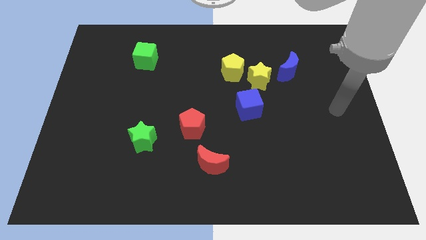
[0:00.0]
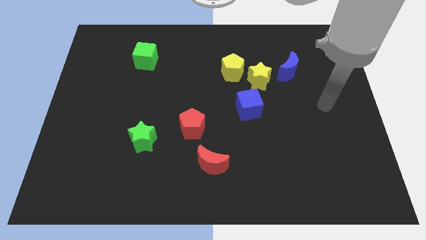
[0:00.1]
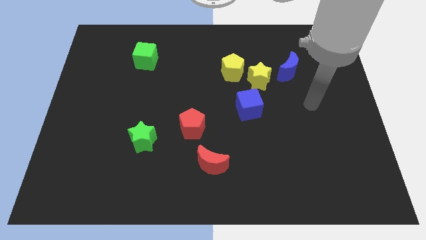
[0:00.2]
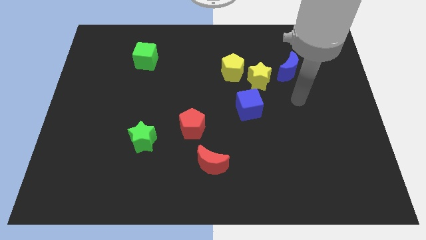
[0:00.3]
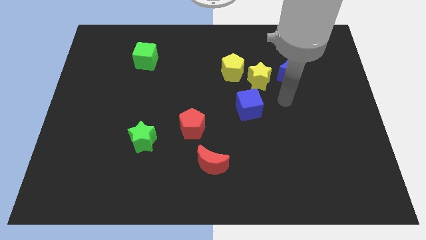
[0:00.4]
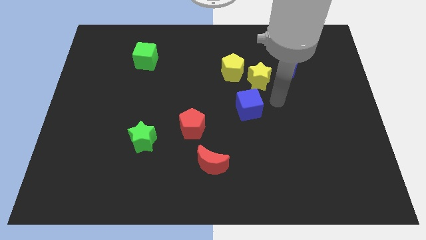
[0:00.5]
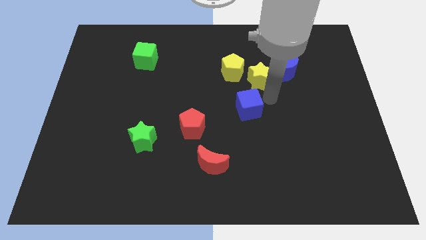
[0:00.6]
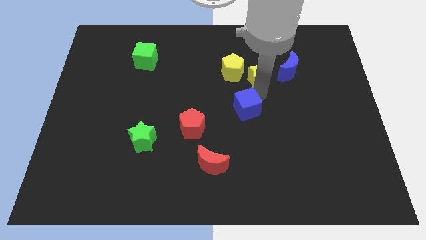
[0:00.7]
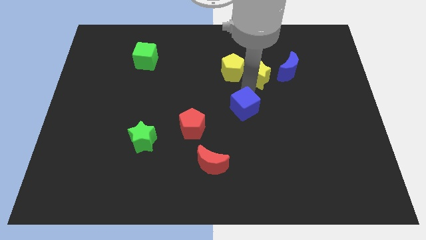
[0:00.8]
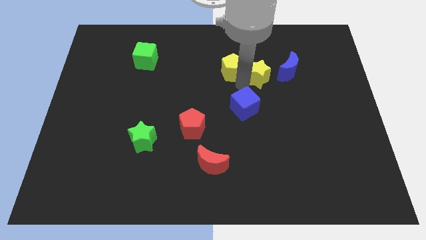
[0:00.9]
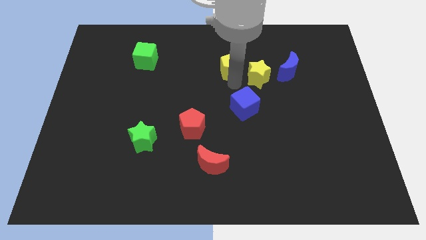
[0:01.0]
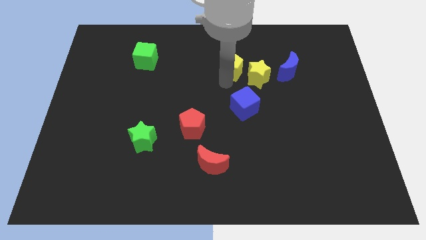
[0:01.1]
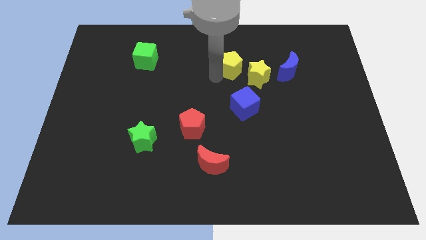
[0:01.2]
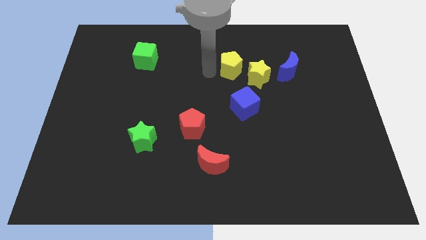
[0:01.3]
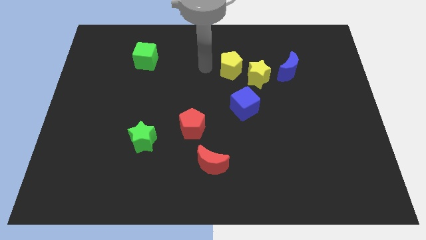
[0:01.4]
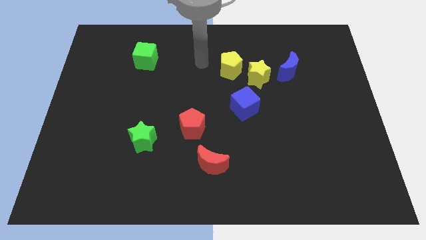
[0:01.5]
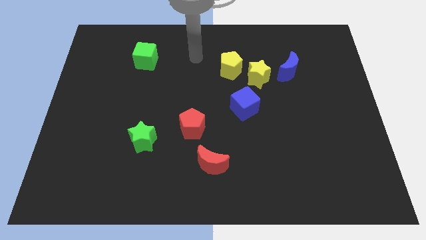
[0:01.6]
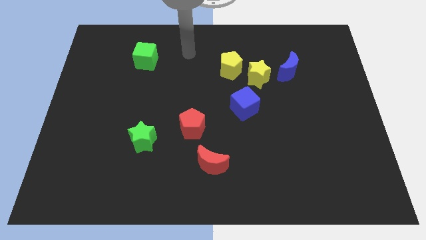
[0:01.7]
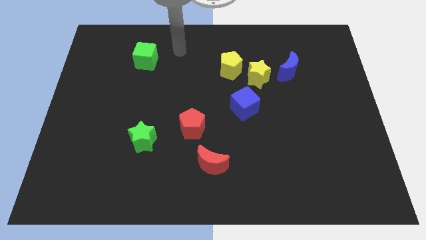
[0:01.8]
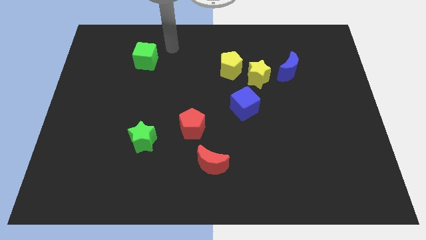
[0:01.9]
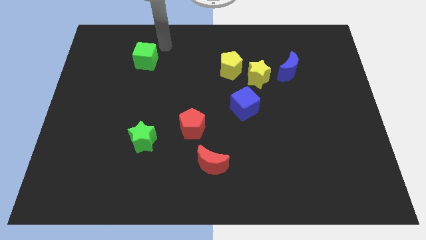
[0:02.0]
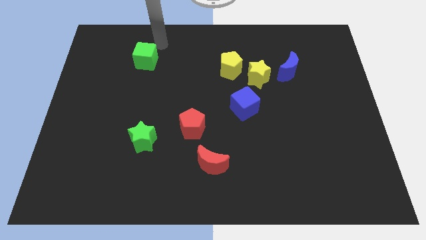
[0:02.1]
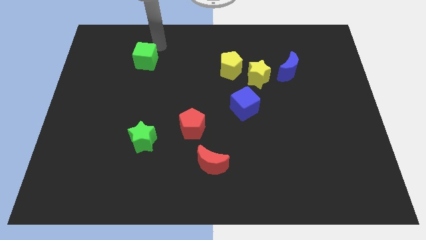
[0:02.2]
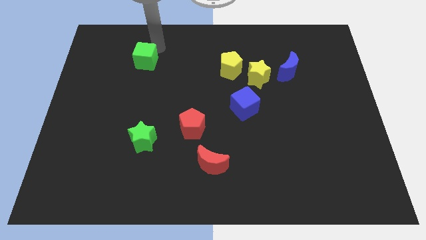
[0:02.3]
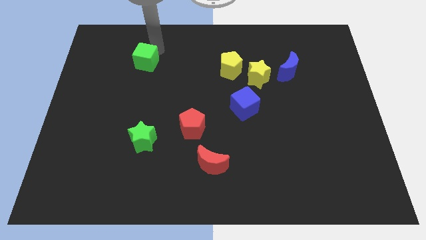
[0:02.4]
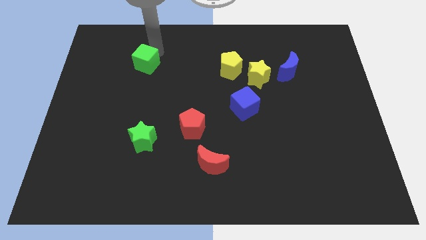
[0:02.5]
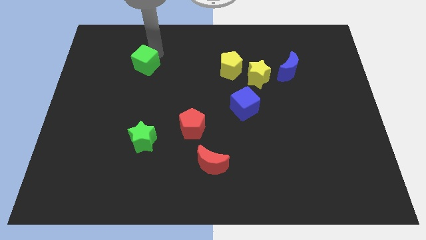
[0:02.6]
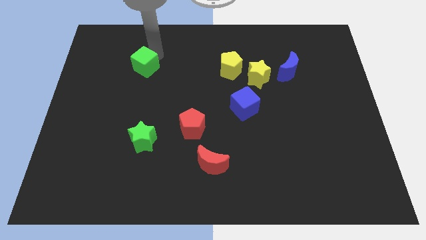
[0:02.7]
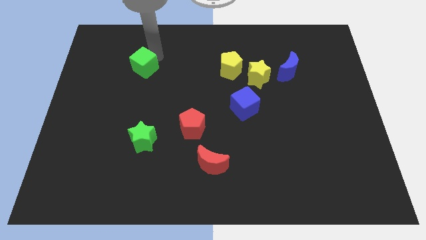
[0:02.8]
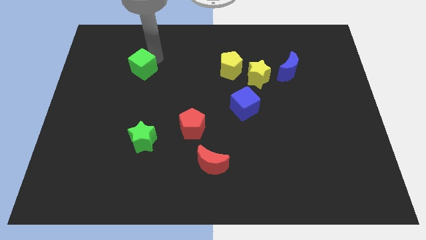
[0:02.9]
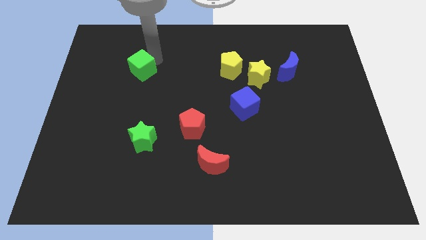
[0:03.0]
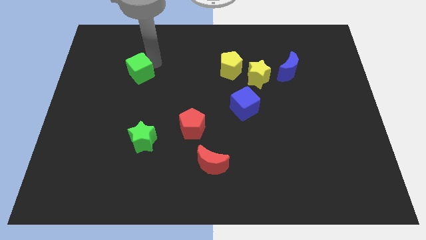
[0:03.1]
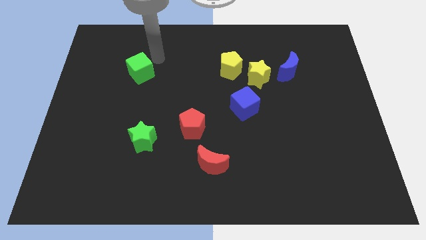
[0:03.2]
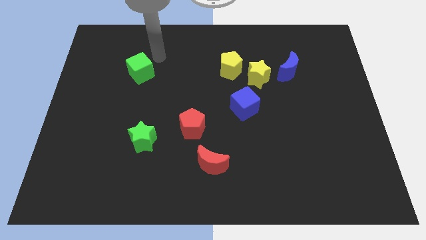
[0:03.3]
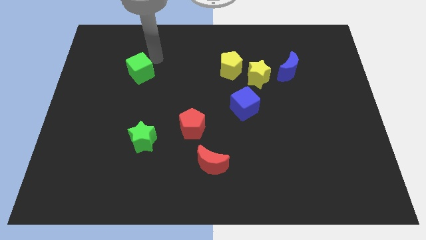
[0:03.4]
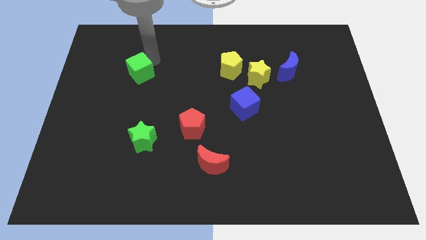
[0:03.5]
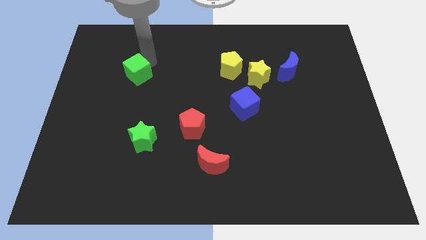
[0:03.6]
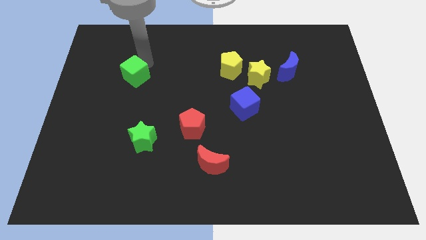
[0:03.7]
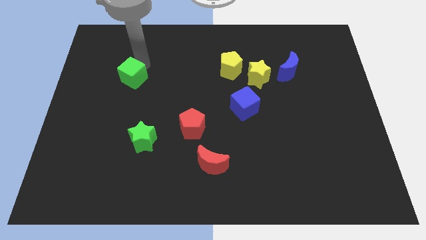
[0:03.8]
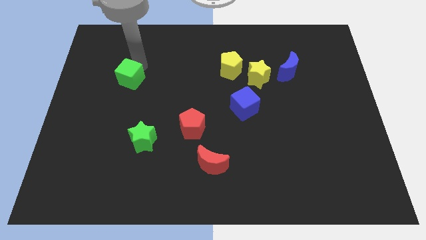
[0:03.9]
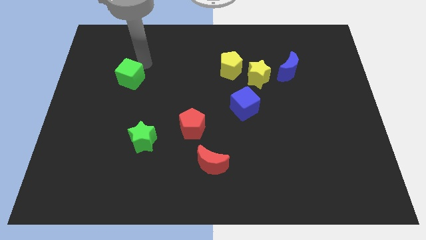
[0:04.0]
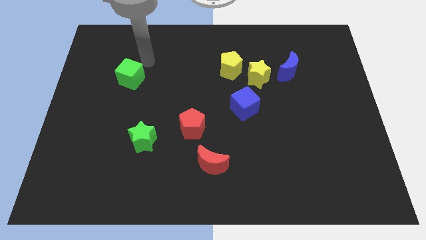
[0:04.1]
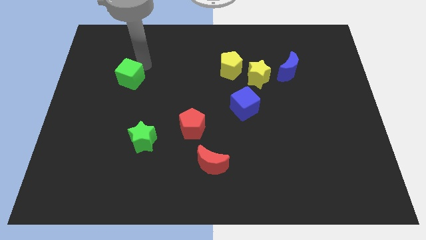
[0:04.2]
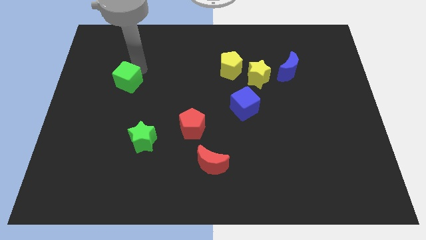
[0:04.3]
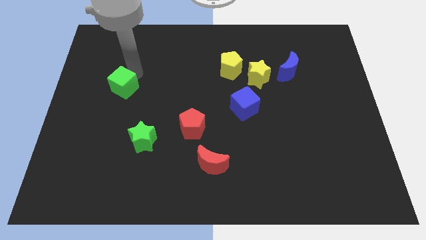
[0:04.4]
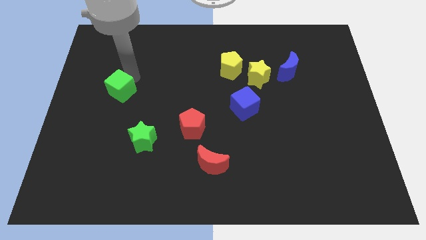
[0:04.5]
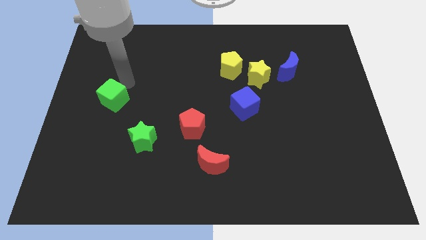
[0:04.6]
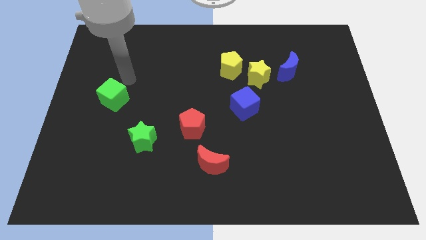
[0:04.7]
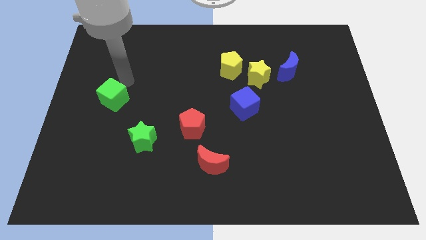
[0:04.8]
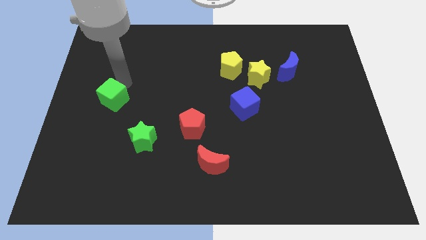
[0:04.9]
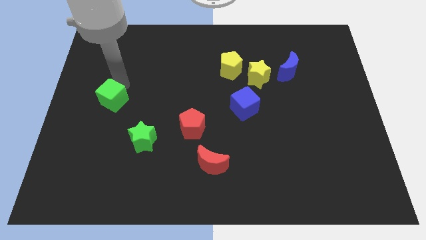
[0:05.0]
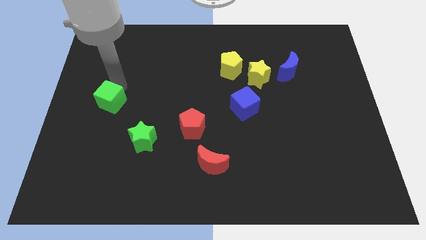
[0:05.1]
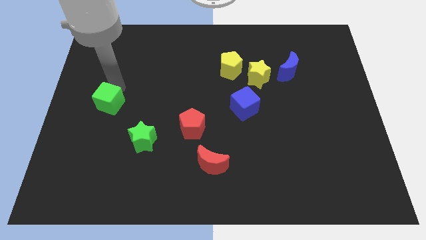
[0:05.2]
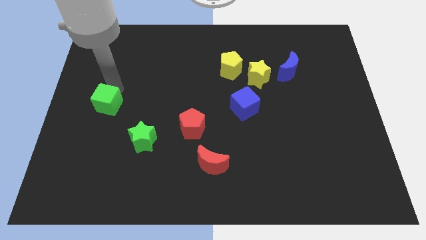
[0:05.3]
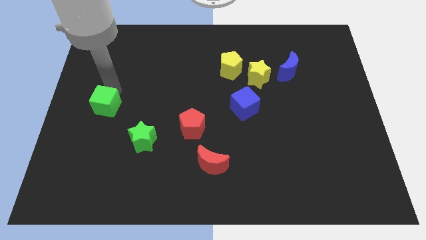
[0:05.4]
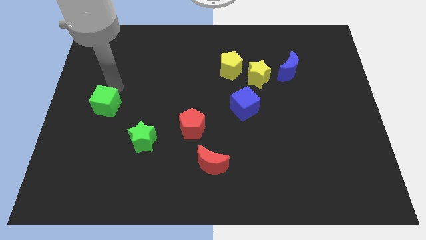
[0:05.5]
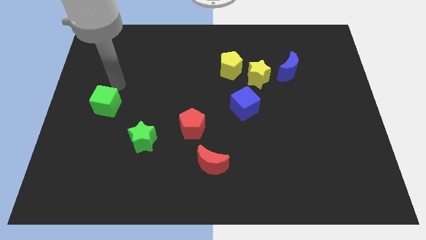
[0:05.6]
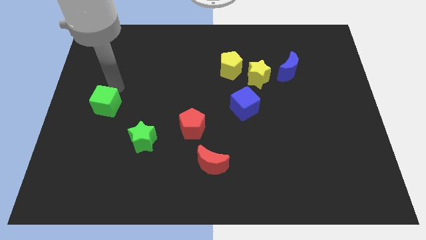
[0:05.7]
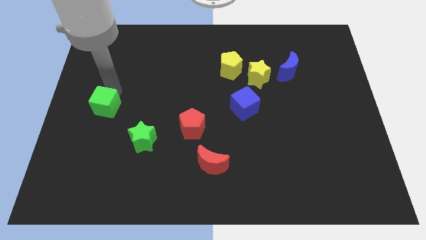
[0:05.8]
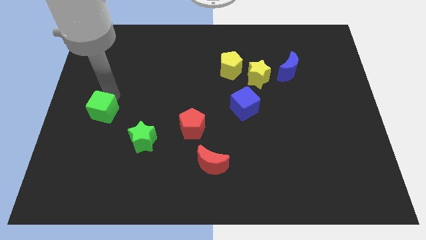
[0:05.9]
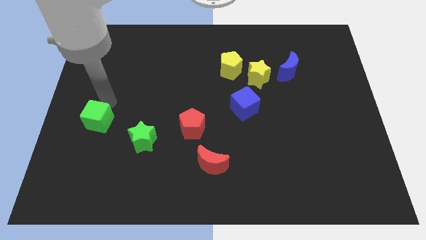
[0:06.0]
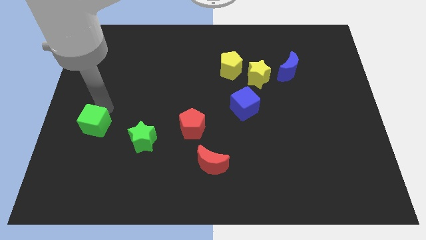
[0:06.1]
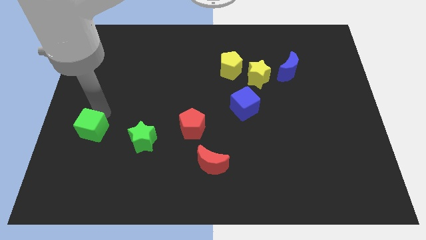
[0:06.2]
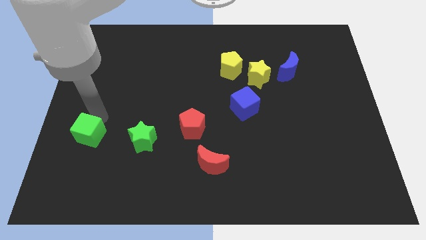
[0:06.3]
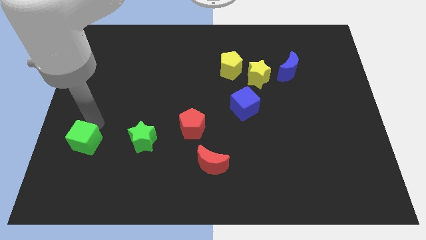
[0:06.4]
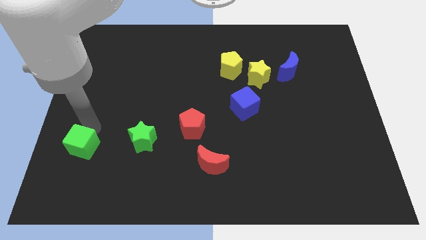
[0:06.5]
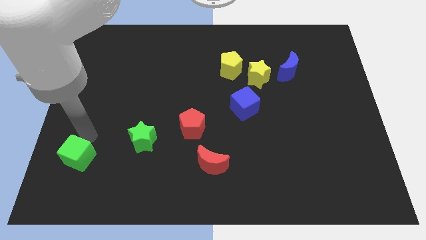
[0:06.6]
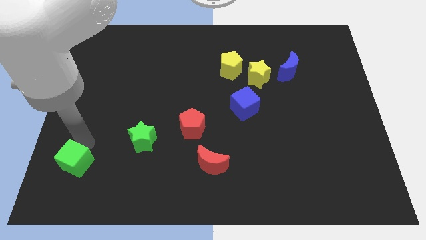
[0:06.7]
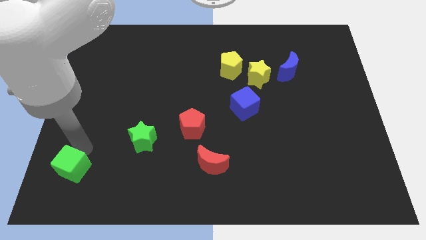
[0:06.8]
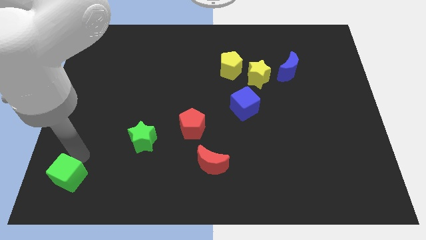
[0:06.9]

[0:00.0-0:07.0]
push the green cube to the bottom left
